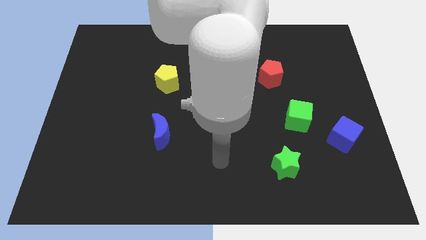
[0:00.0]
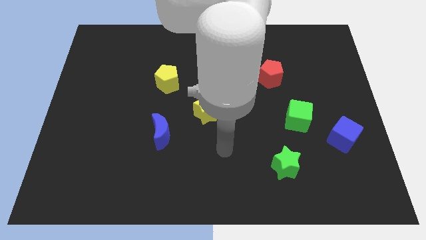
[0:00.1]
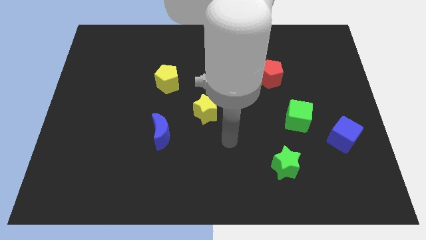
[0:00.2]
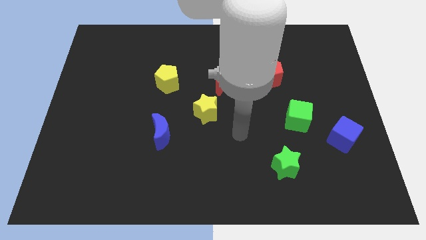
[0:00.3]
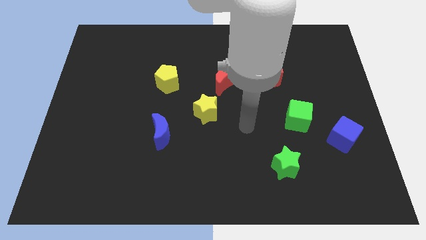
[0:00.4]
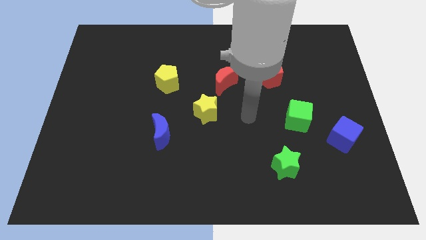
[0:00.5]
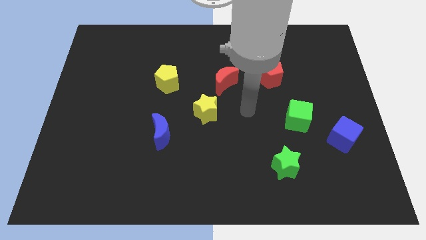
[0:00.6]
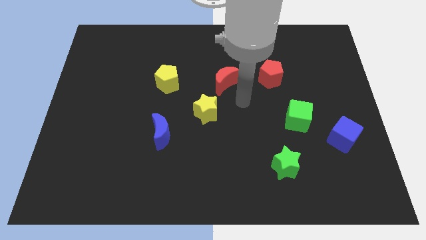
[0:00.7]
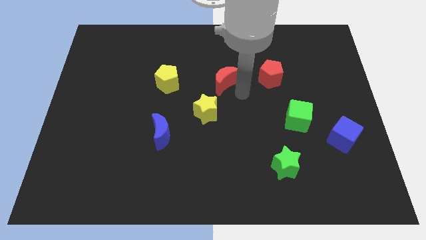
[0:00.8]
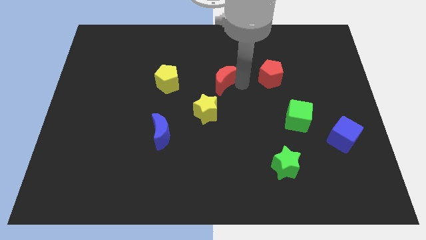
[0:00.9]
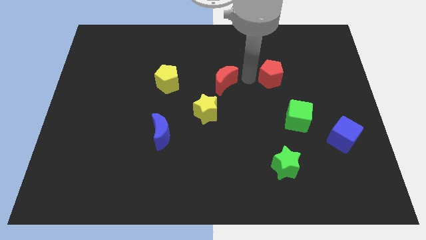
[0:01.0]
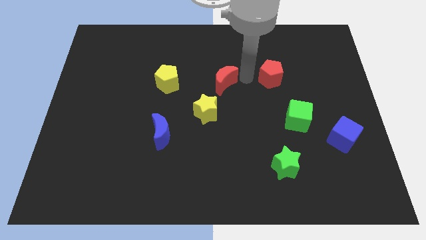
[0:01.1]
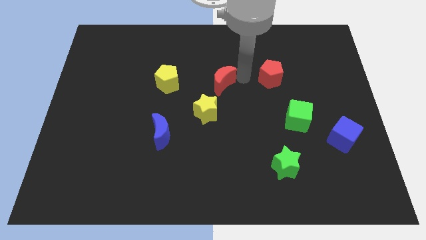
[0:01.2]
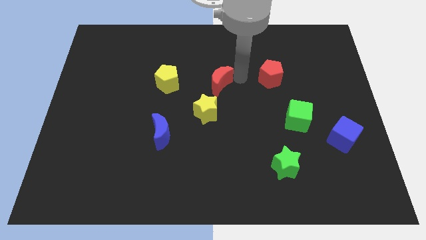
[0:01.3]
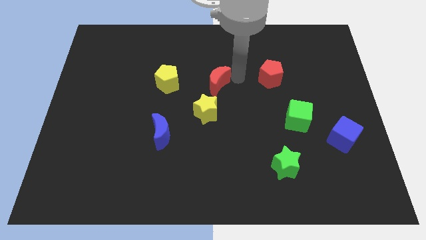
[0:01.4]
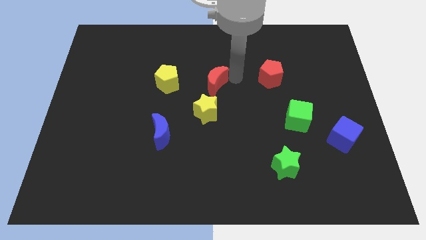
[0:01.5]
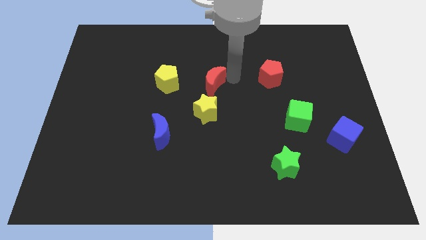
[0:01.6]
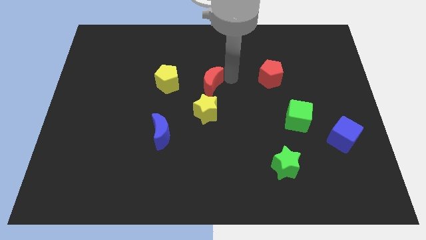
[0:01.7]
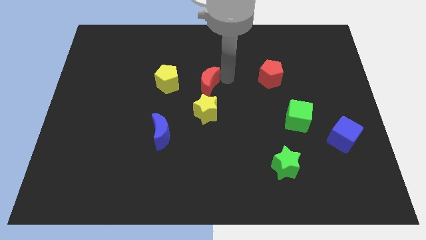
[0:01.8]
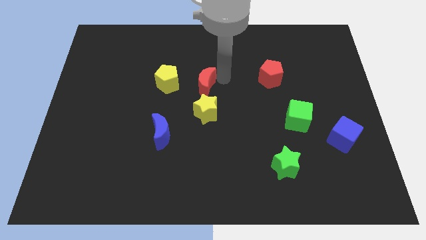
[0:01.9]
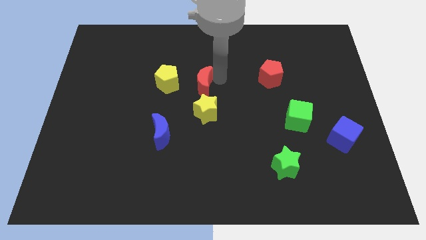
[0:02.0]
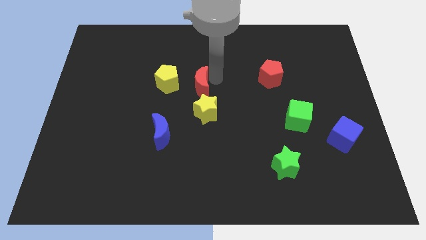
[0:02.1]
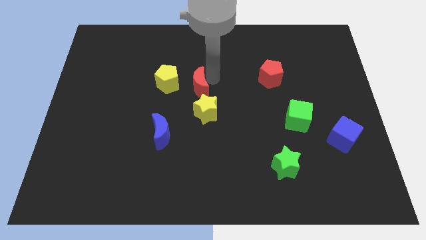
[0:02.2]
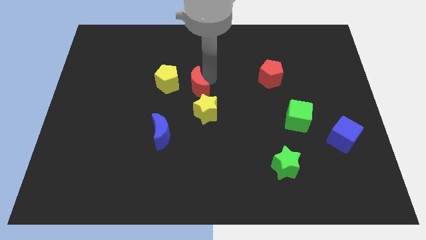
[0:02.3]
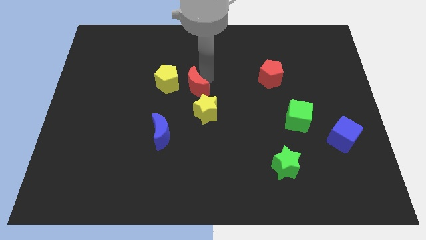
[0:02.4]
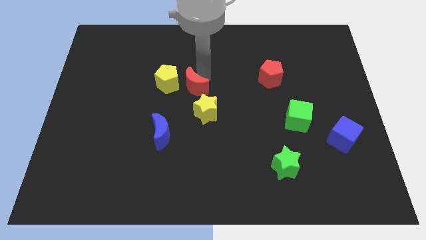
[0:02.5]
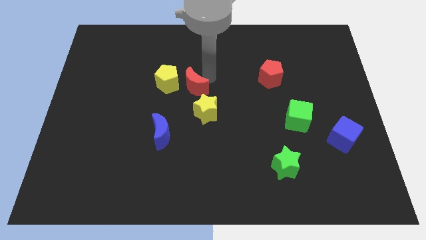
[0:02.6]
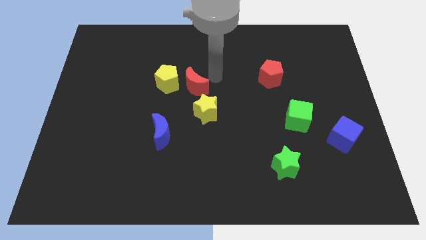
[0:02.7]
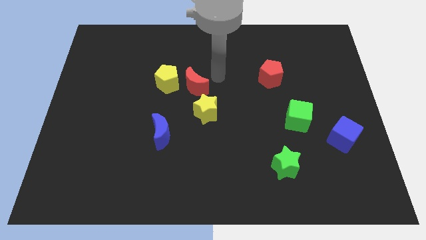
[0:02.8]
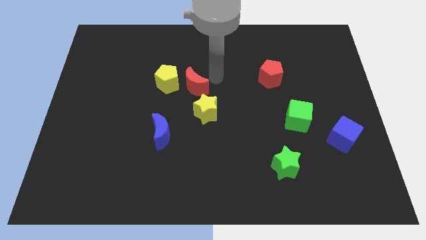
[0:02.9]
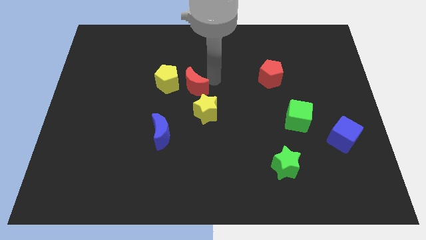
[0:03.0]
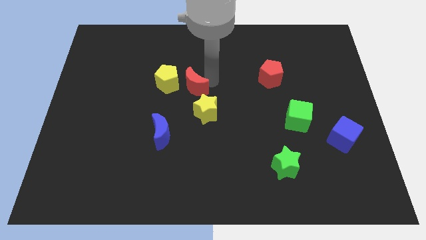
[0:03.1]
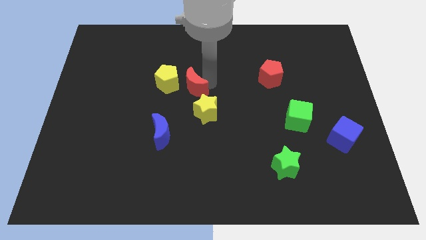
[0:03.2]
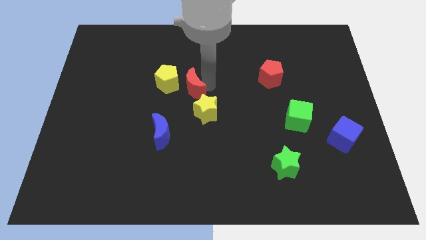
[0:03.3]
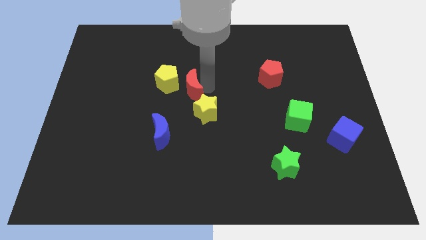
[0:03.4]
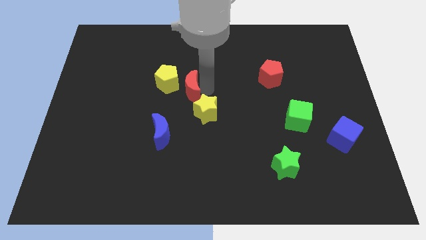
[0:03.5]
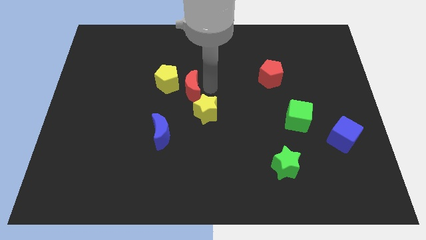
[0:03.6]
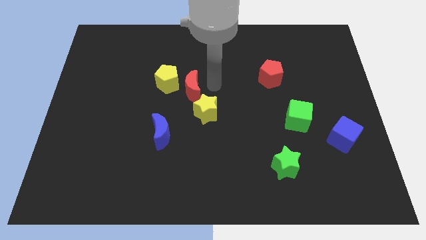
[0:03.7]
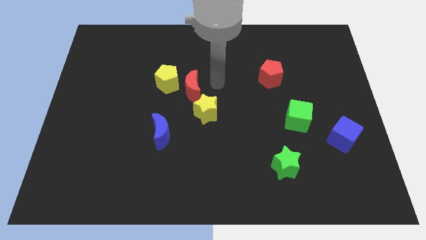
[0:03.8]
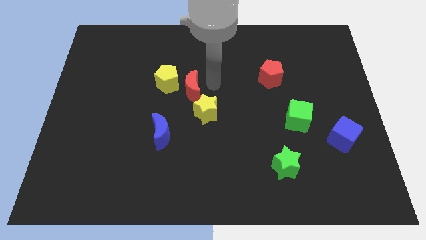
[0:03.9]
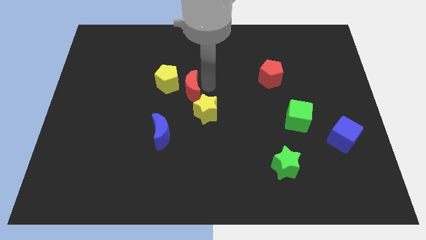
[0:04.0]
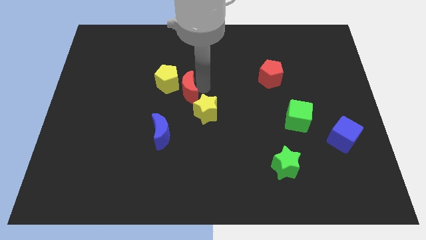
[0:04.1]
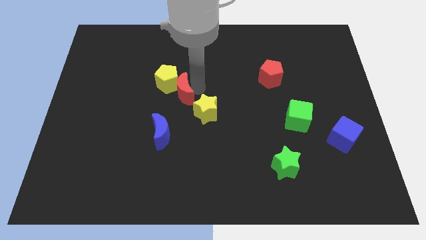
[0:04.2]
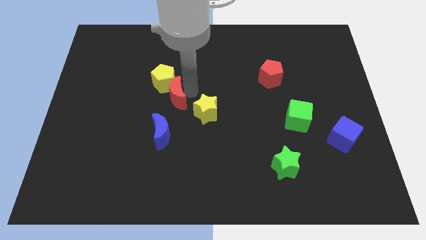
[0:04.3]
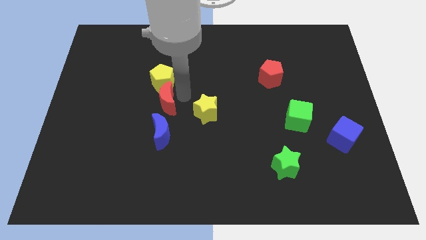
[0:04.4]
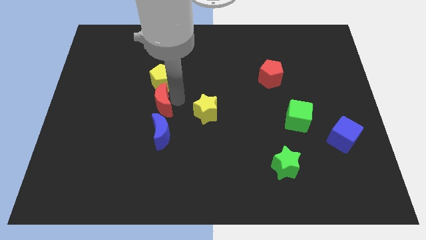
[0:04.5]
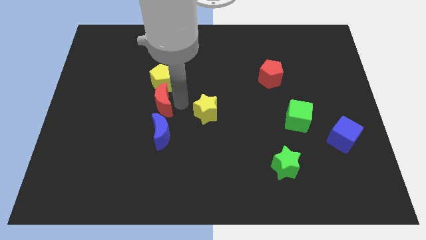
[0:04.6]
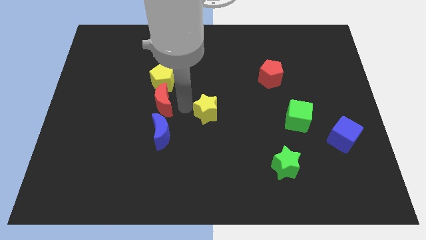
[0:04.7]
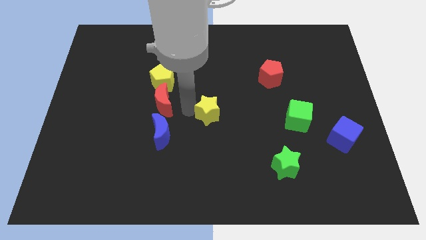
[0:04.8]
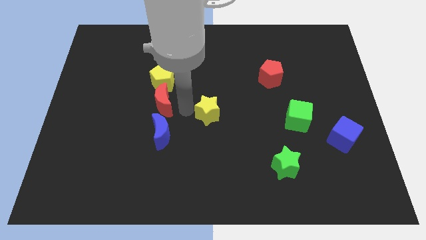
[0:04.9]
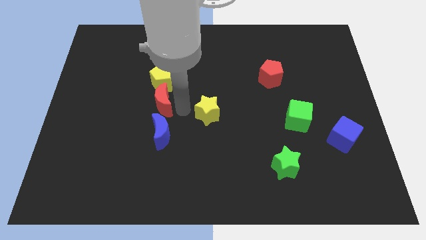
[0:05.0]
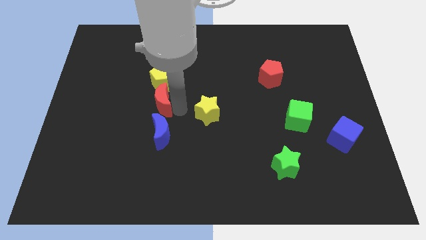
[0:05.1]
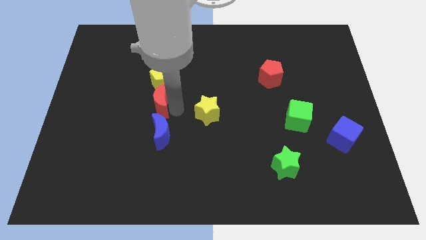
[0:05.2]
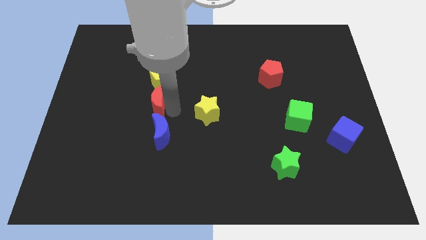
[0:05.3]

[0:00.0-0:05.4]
push the red moon diagonally down and to the left of the yellow pentagon

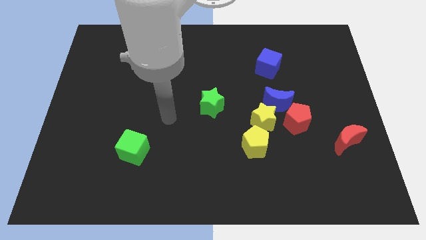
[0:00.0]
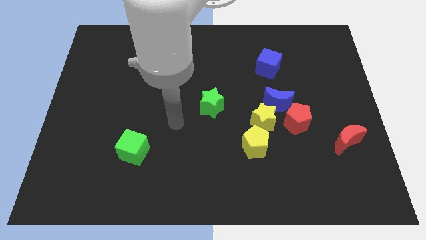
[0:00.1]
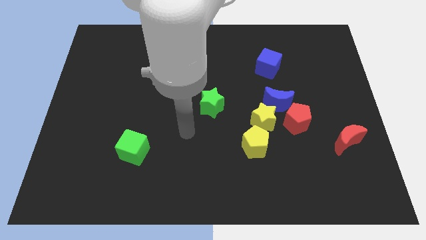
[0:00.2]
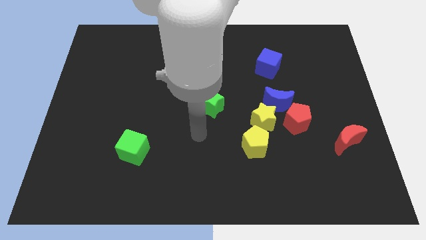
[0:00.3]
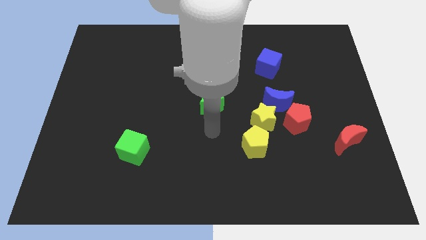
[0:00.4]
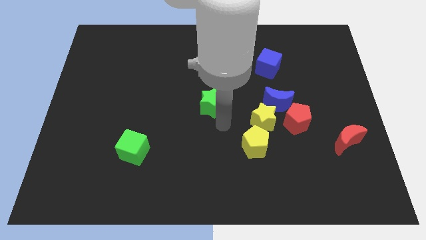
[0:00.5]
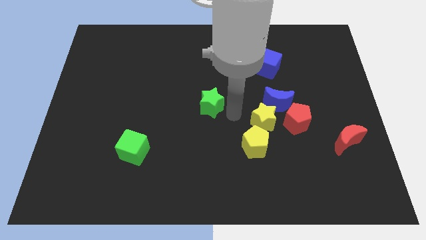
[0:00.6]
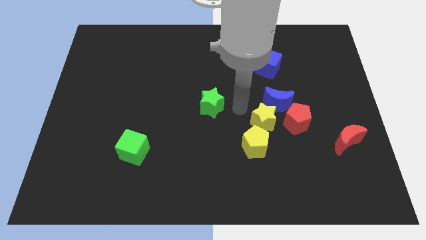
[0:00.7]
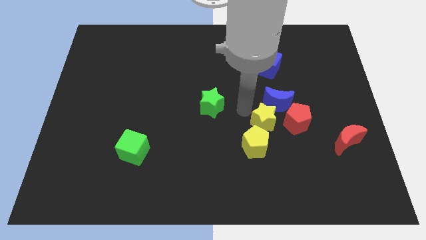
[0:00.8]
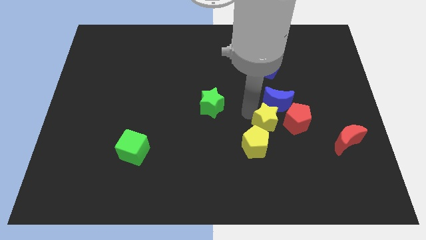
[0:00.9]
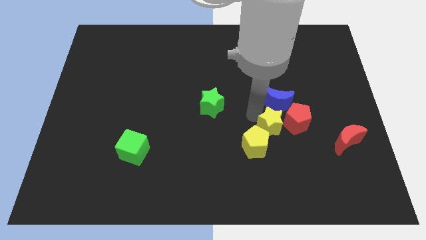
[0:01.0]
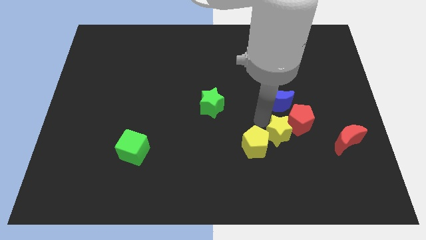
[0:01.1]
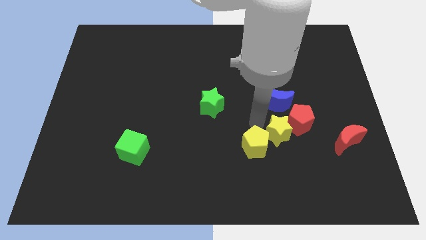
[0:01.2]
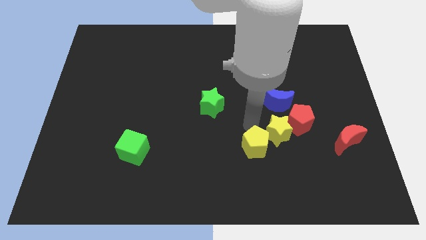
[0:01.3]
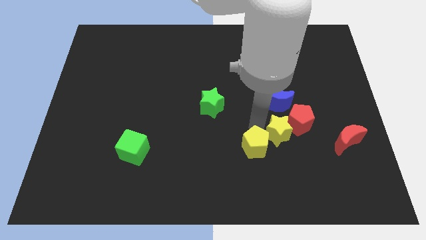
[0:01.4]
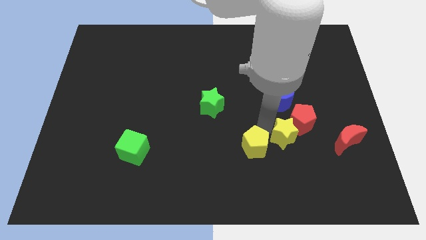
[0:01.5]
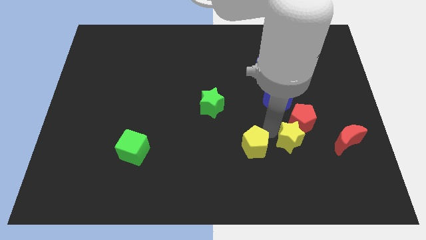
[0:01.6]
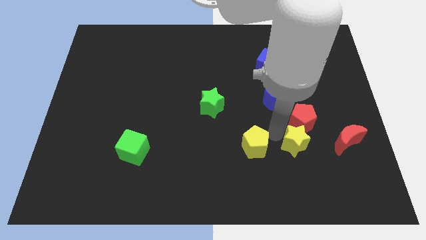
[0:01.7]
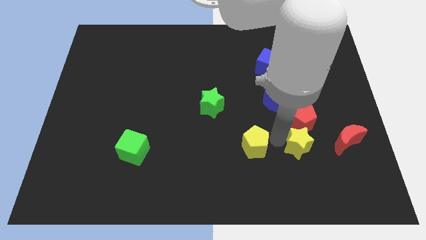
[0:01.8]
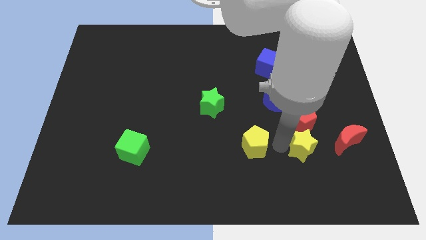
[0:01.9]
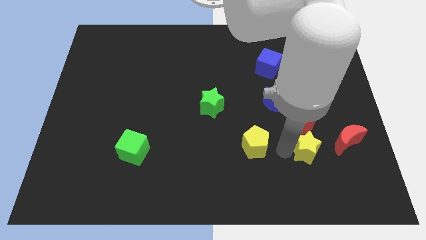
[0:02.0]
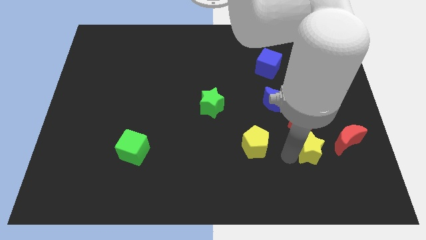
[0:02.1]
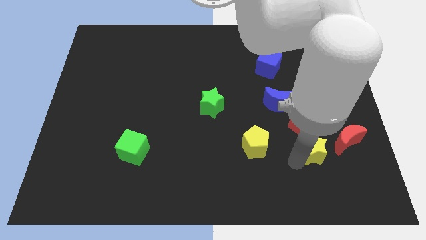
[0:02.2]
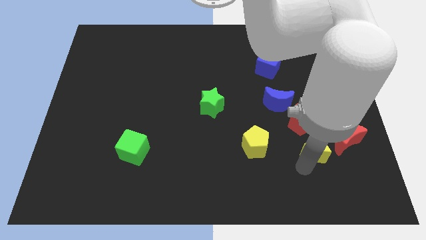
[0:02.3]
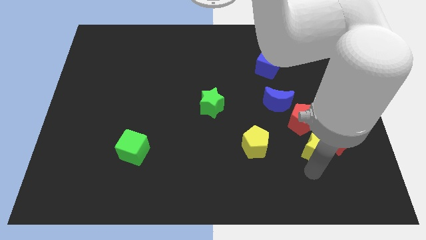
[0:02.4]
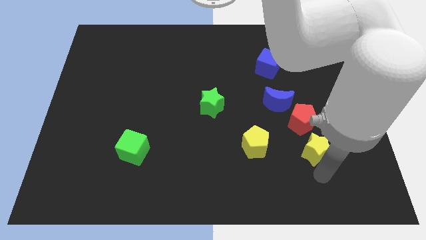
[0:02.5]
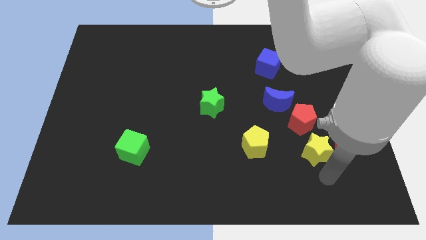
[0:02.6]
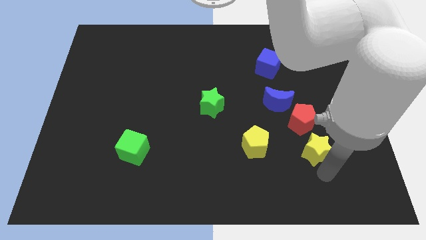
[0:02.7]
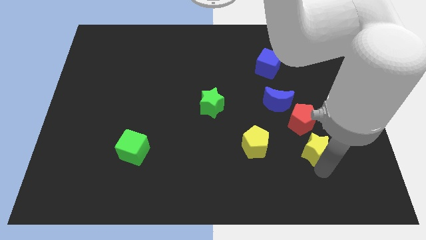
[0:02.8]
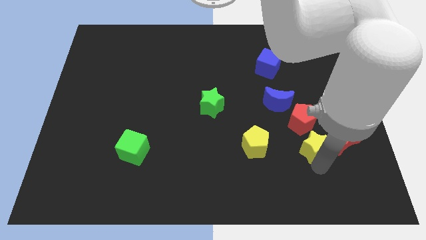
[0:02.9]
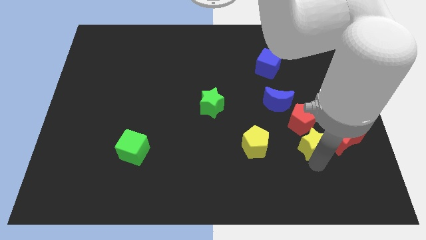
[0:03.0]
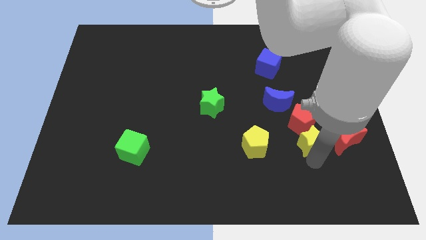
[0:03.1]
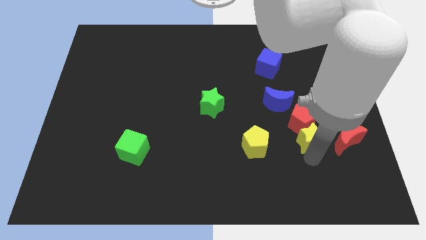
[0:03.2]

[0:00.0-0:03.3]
push the yellow star diagonally down and to the right of the blue moon
